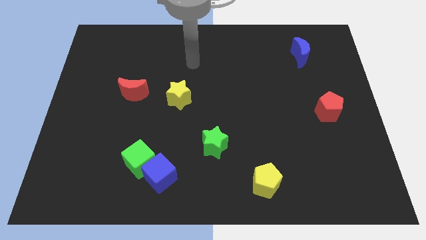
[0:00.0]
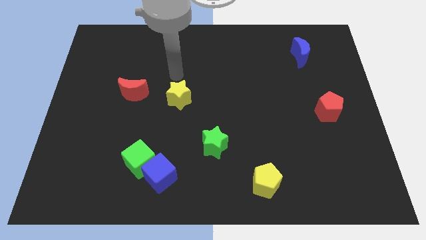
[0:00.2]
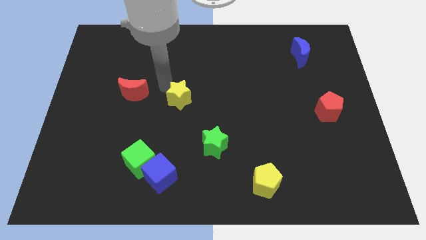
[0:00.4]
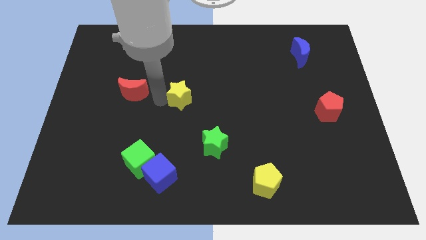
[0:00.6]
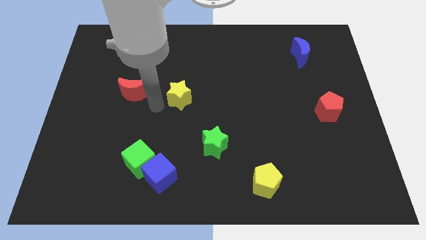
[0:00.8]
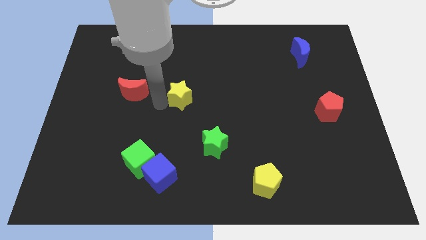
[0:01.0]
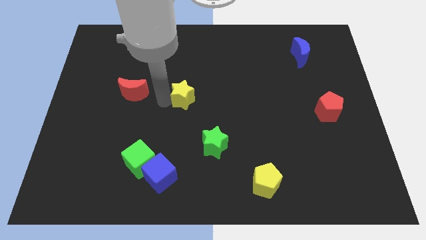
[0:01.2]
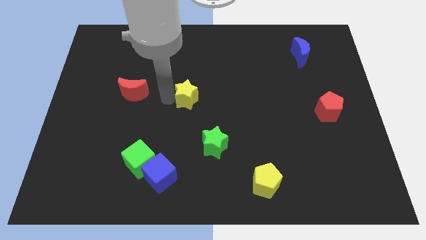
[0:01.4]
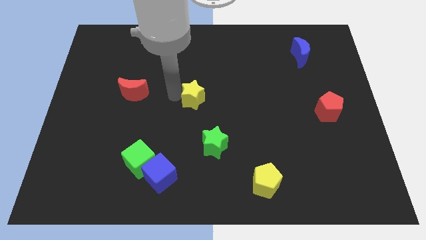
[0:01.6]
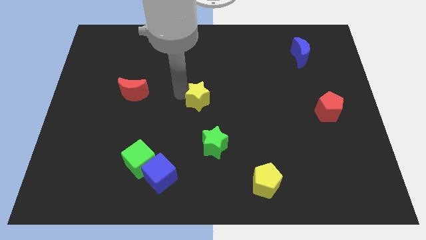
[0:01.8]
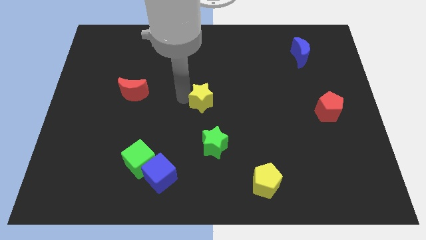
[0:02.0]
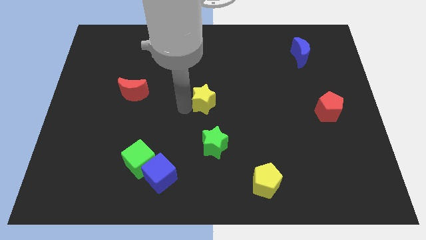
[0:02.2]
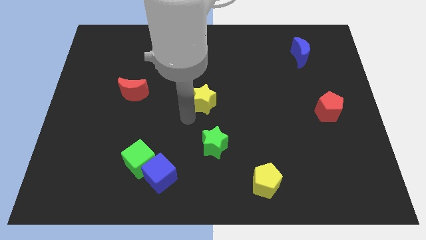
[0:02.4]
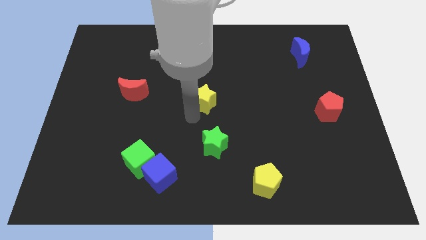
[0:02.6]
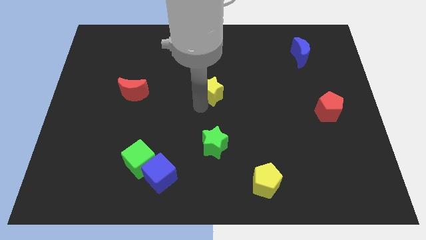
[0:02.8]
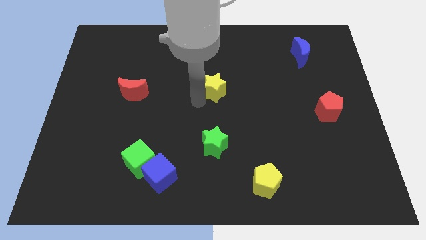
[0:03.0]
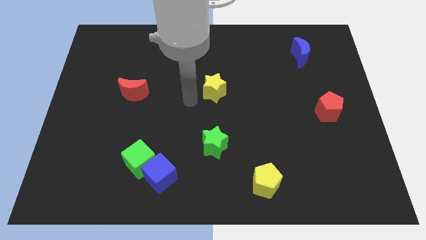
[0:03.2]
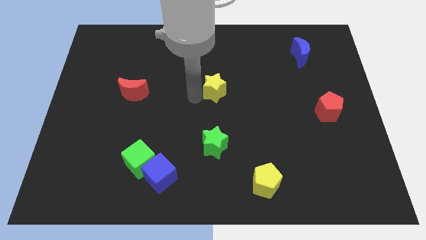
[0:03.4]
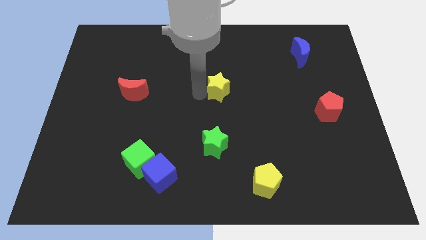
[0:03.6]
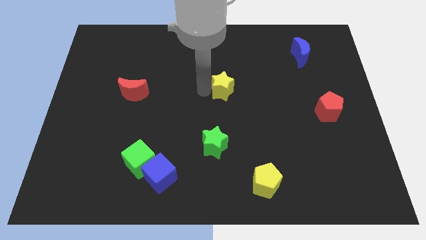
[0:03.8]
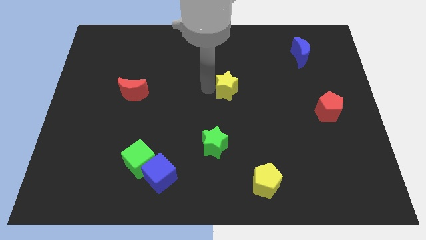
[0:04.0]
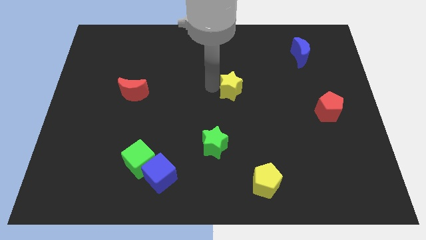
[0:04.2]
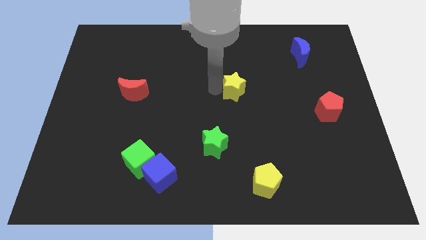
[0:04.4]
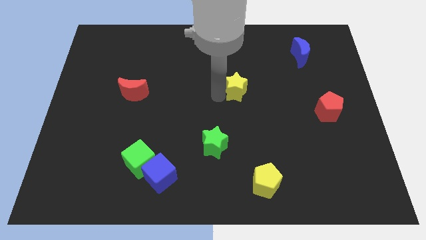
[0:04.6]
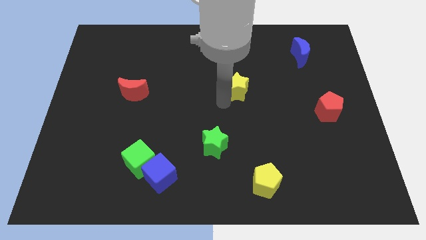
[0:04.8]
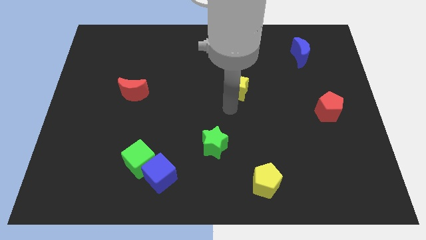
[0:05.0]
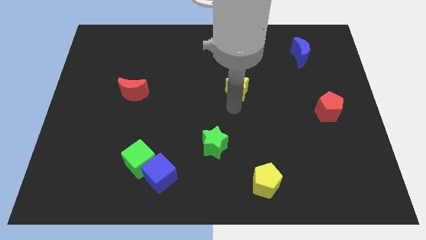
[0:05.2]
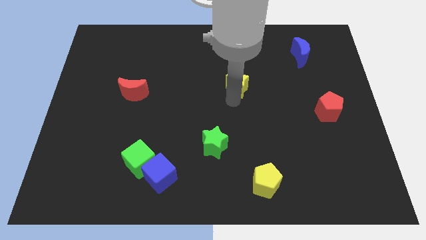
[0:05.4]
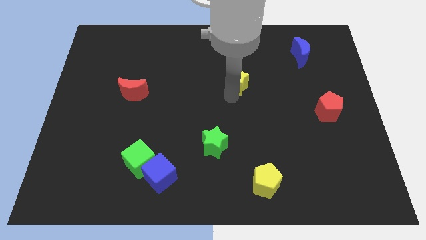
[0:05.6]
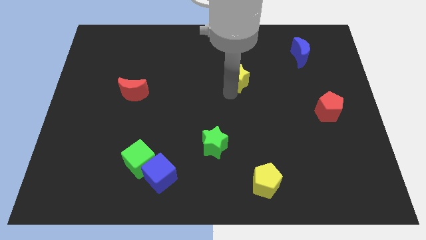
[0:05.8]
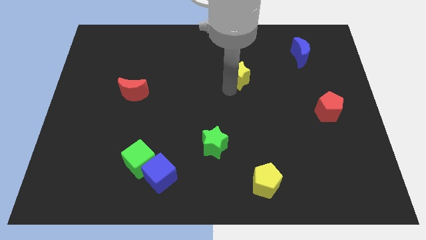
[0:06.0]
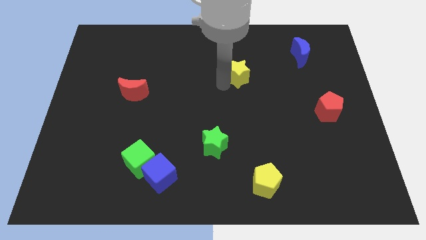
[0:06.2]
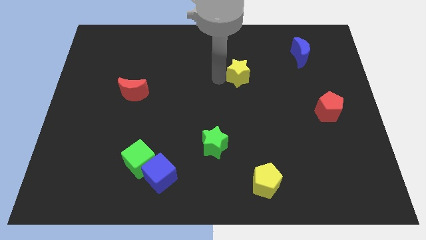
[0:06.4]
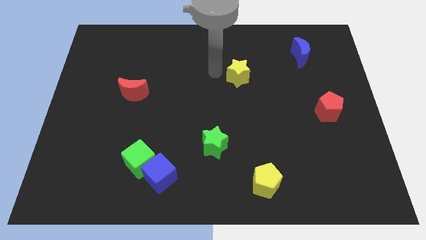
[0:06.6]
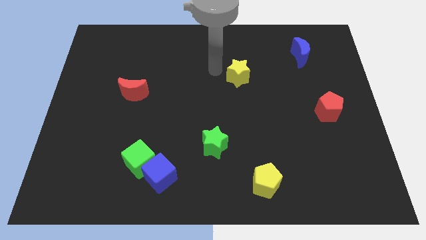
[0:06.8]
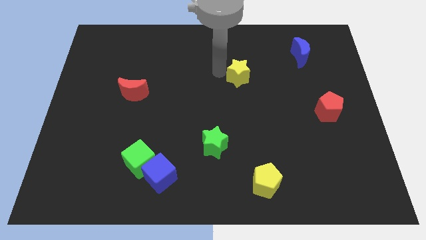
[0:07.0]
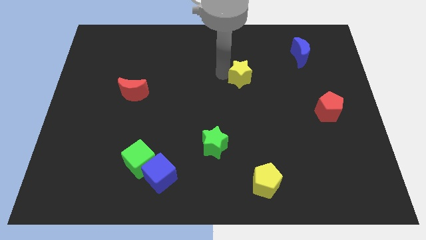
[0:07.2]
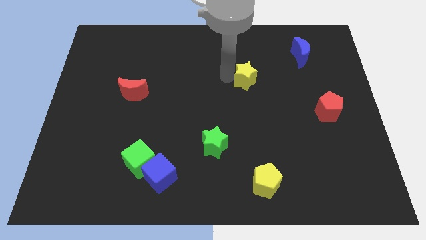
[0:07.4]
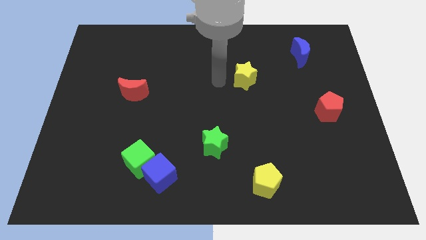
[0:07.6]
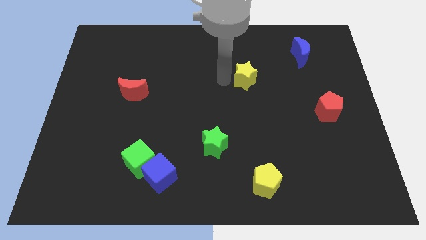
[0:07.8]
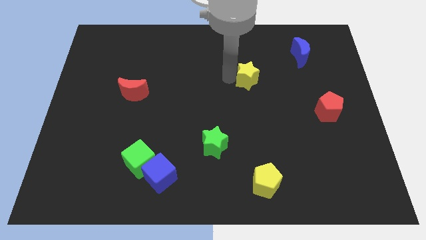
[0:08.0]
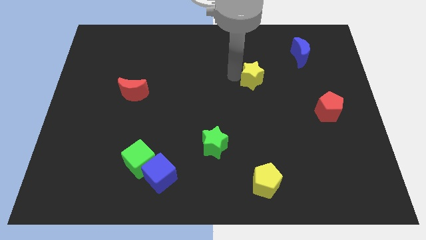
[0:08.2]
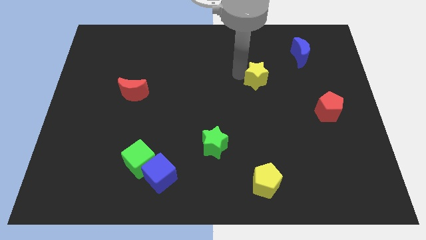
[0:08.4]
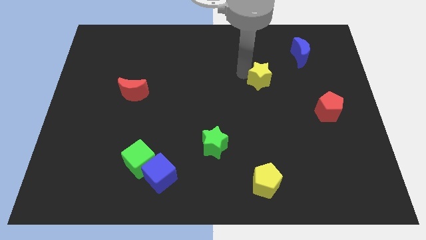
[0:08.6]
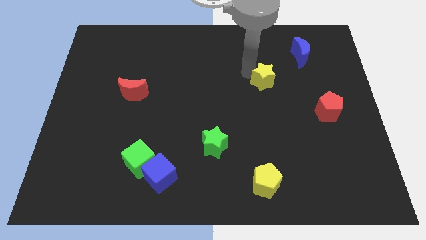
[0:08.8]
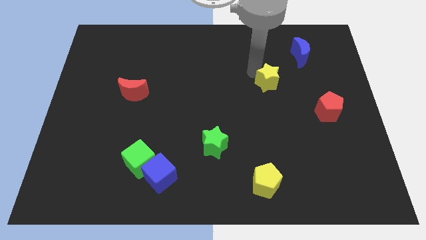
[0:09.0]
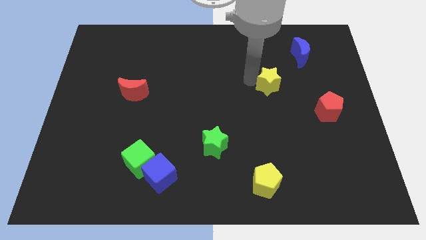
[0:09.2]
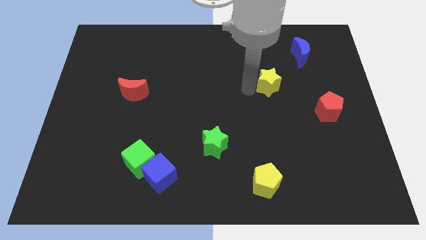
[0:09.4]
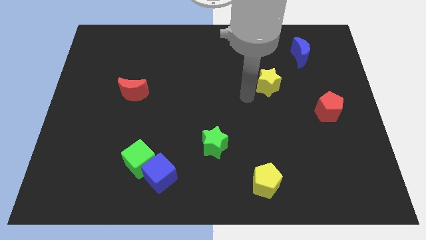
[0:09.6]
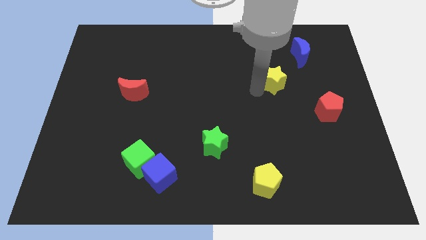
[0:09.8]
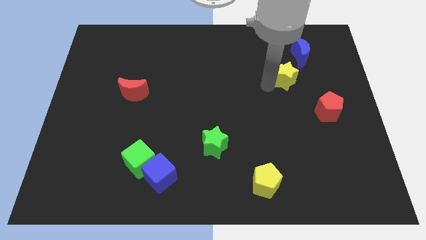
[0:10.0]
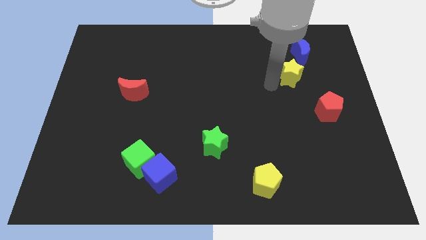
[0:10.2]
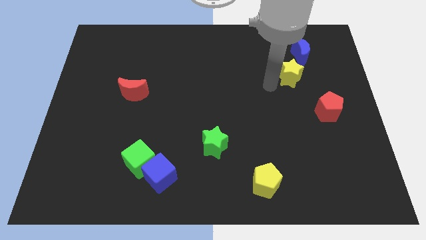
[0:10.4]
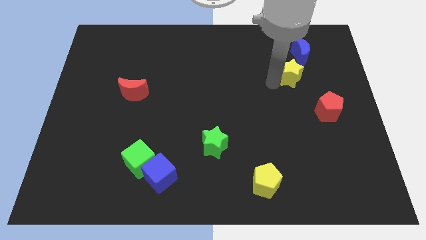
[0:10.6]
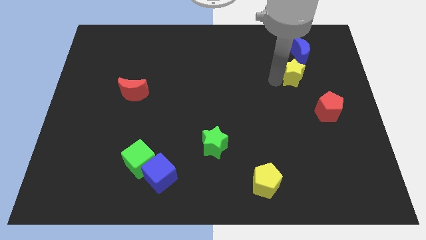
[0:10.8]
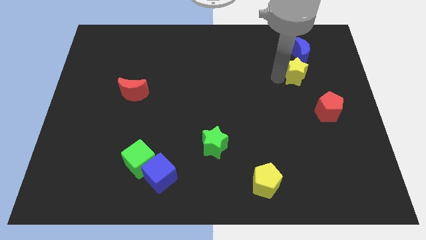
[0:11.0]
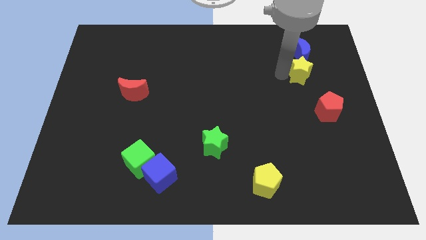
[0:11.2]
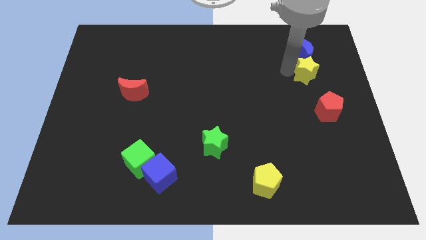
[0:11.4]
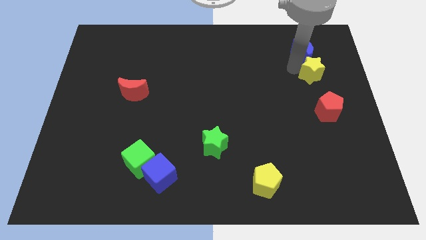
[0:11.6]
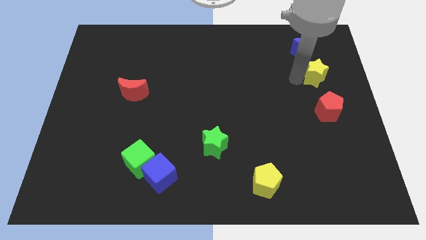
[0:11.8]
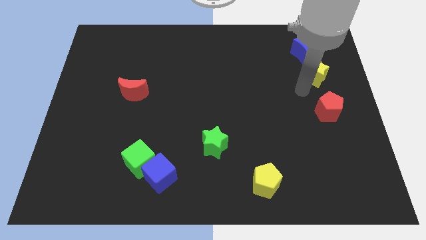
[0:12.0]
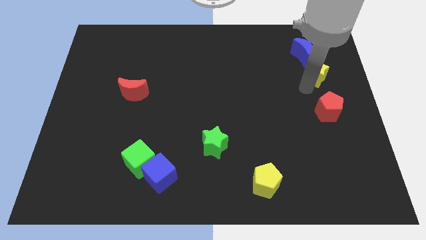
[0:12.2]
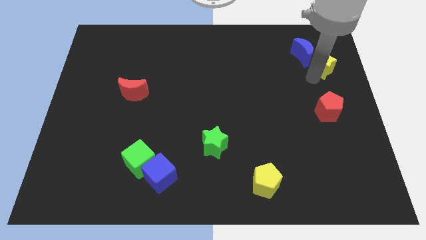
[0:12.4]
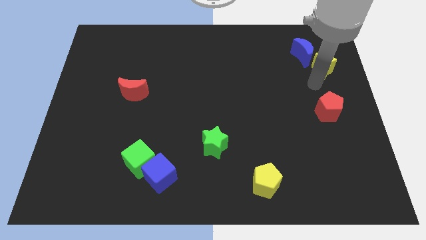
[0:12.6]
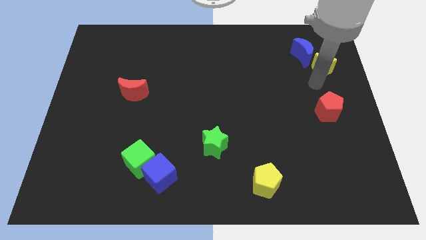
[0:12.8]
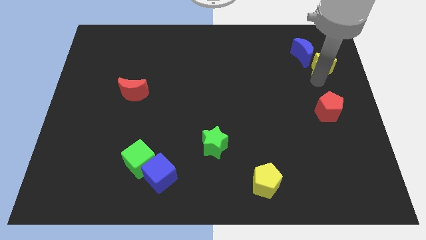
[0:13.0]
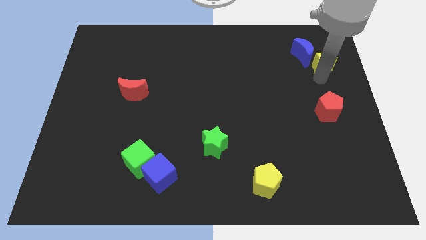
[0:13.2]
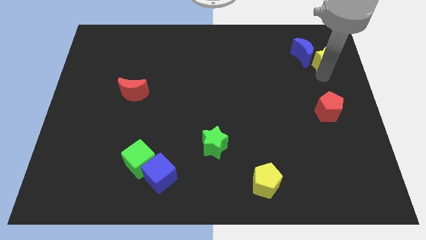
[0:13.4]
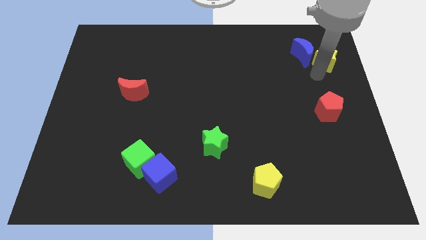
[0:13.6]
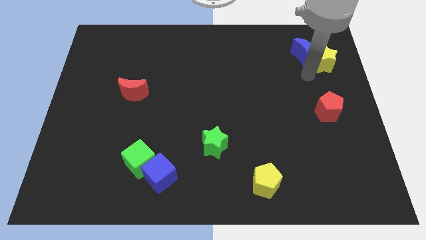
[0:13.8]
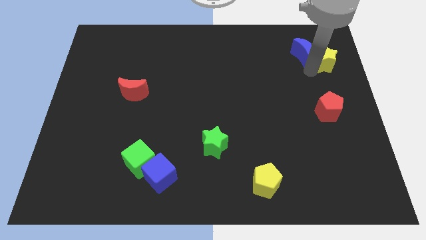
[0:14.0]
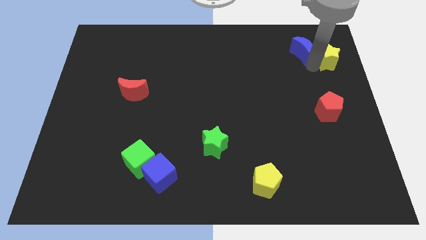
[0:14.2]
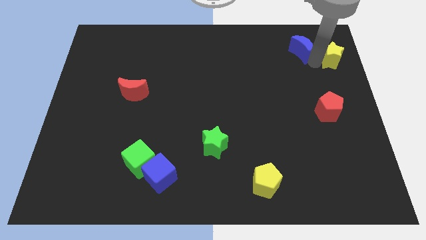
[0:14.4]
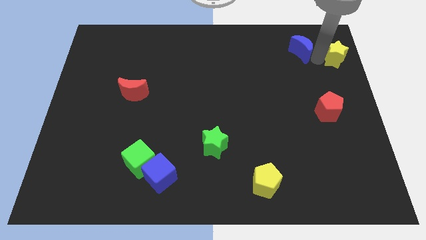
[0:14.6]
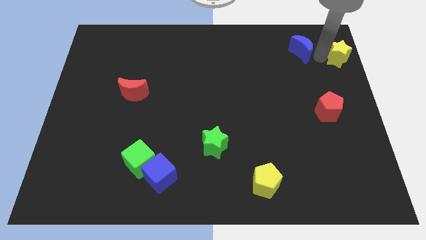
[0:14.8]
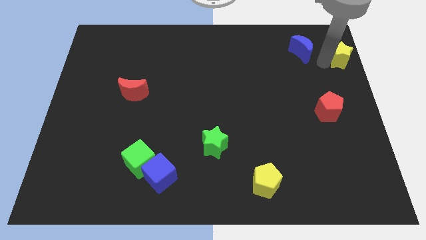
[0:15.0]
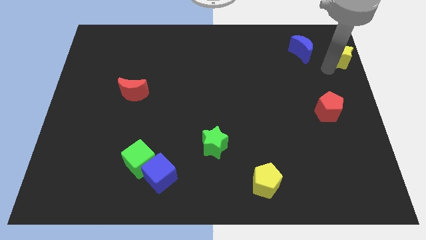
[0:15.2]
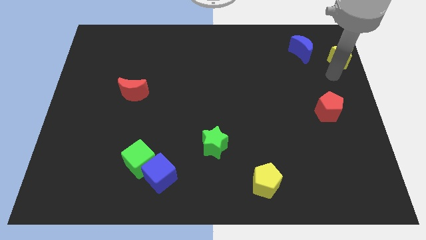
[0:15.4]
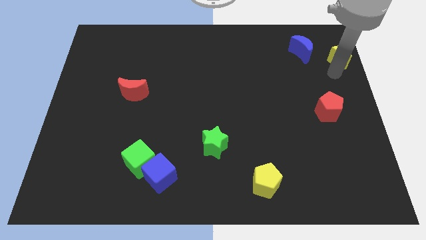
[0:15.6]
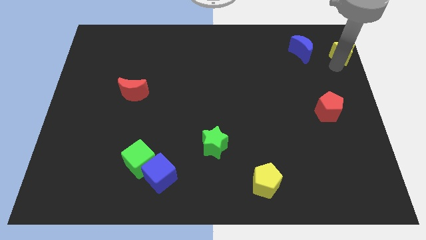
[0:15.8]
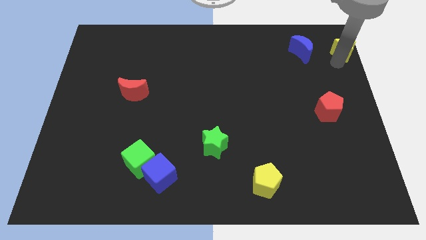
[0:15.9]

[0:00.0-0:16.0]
put the yellow star to the top right
